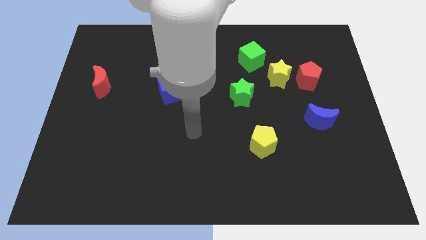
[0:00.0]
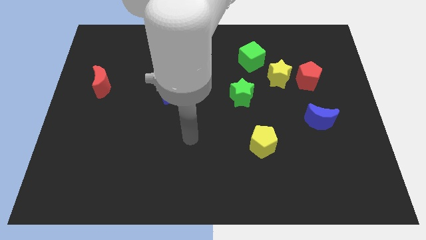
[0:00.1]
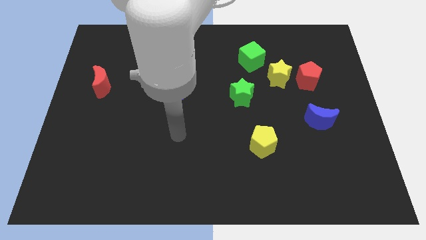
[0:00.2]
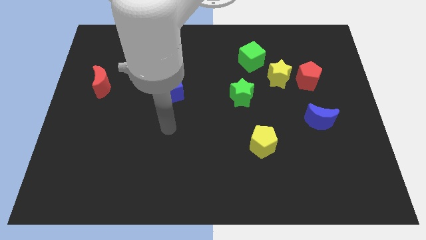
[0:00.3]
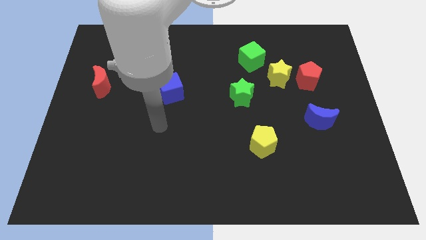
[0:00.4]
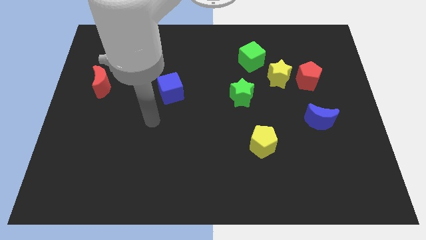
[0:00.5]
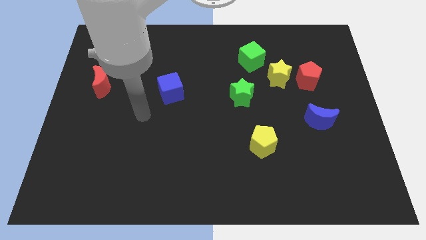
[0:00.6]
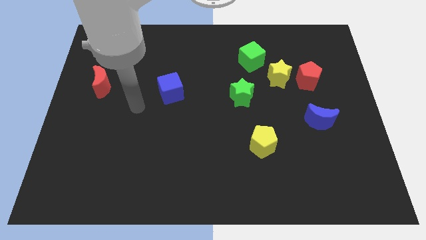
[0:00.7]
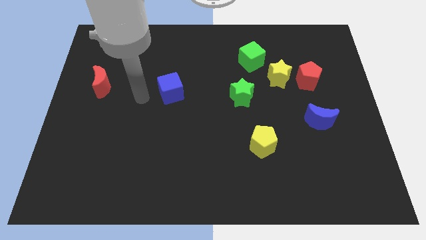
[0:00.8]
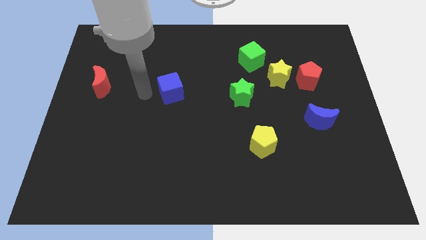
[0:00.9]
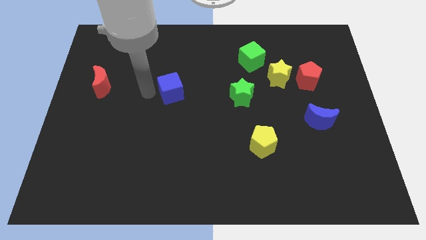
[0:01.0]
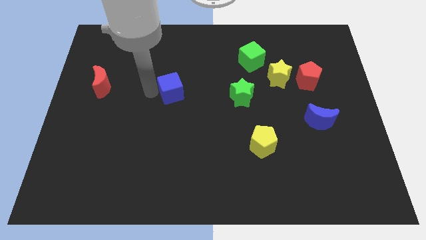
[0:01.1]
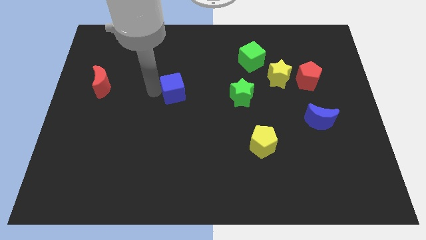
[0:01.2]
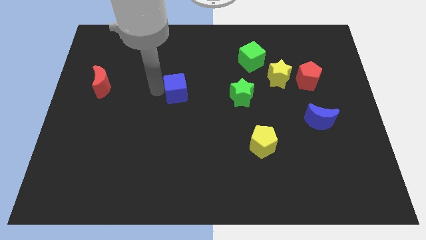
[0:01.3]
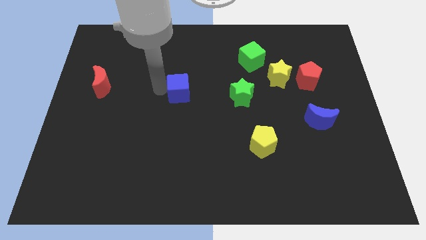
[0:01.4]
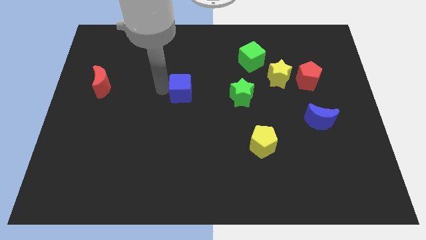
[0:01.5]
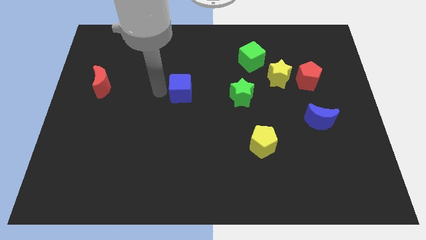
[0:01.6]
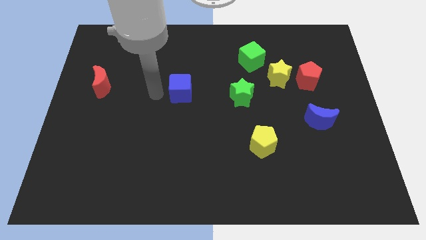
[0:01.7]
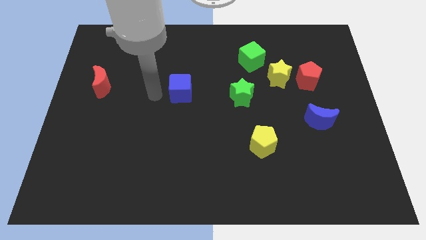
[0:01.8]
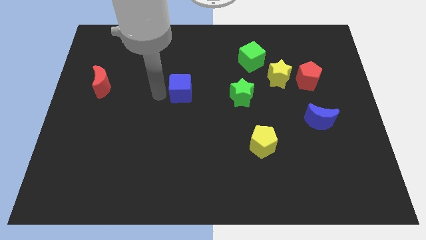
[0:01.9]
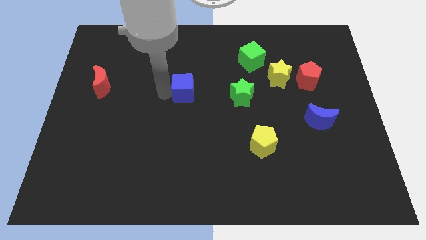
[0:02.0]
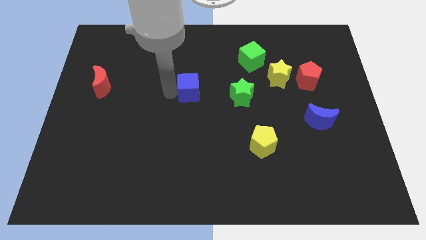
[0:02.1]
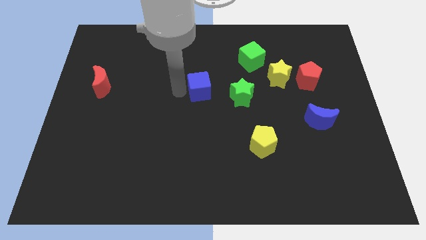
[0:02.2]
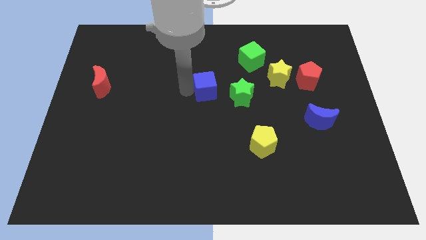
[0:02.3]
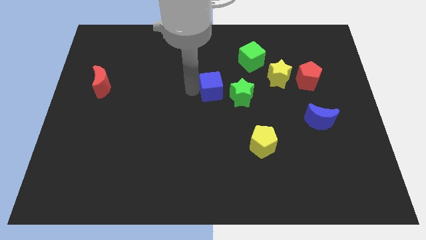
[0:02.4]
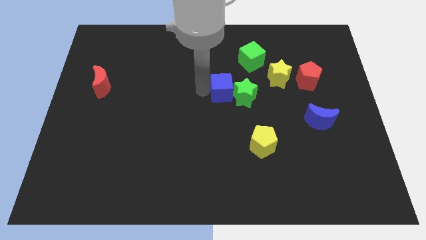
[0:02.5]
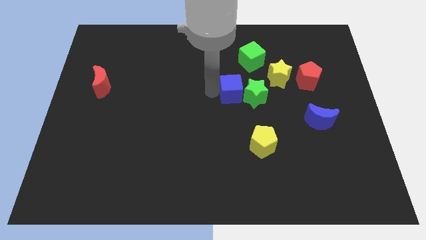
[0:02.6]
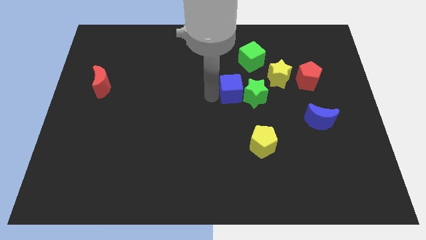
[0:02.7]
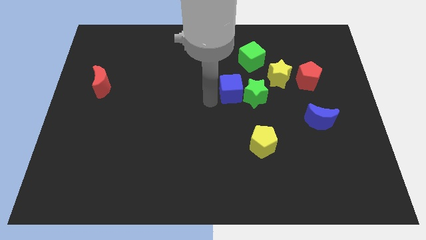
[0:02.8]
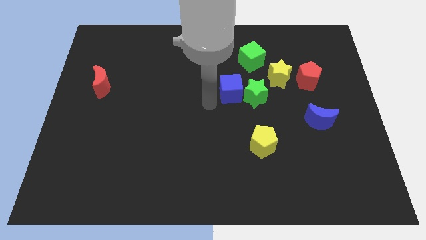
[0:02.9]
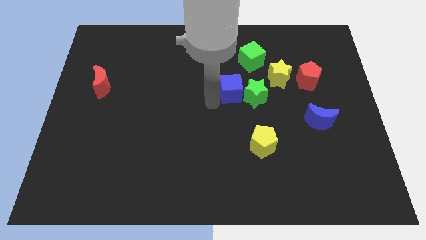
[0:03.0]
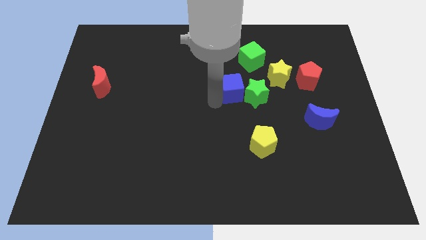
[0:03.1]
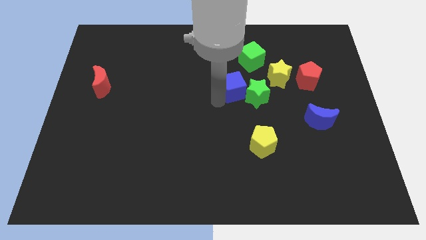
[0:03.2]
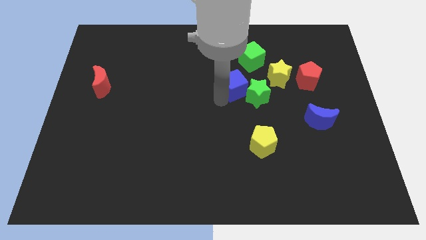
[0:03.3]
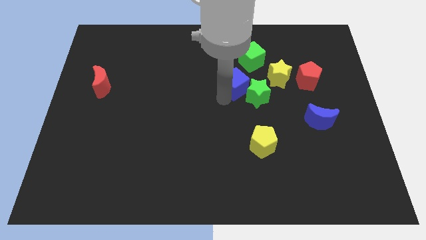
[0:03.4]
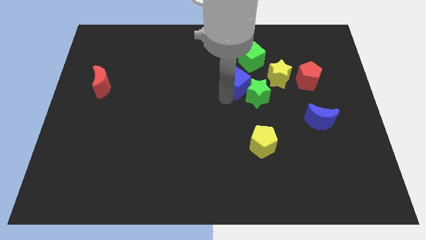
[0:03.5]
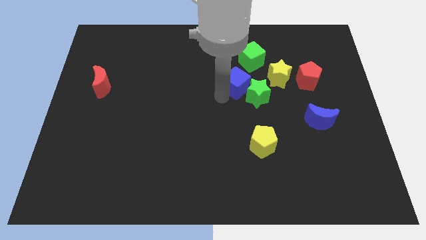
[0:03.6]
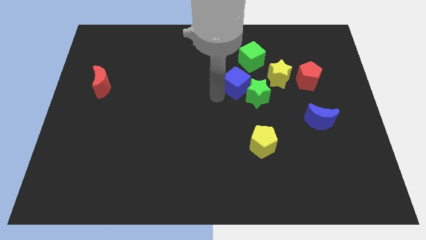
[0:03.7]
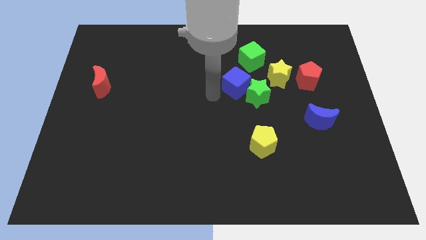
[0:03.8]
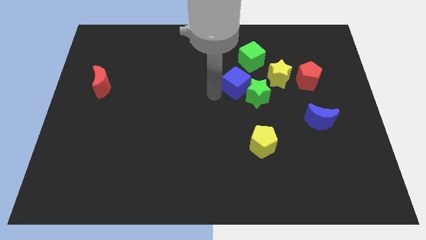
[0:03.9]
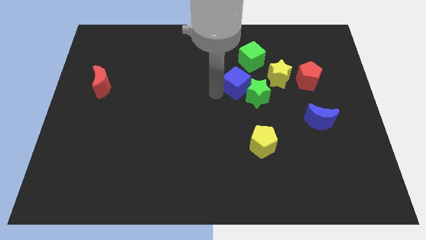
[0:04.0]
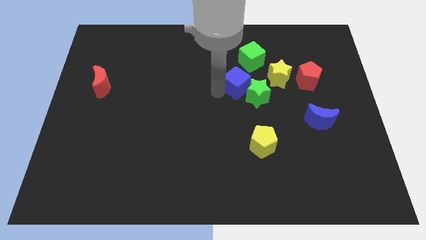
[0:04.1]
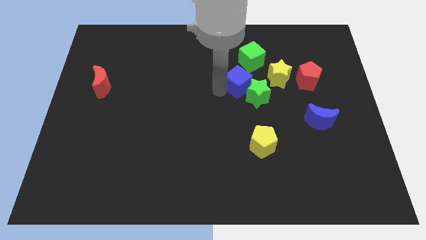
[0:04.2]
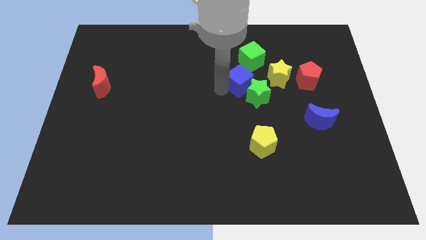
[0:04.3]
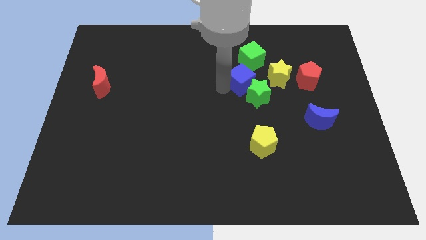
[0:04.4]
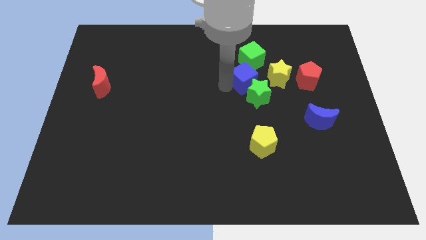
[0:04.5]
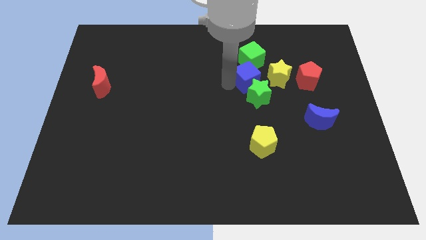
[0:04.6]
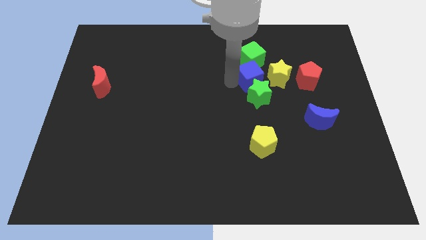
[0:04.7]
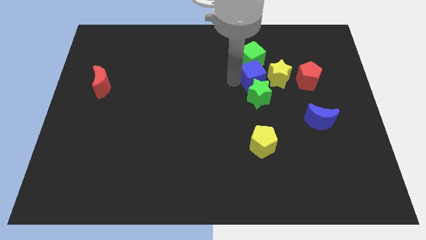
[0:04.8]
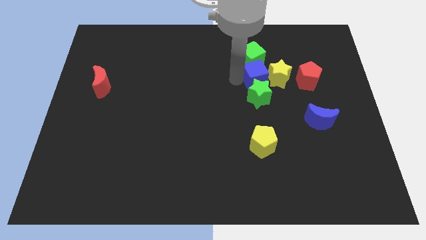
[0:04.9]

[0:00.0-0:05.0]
move the blue cube next to the yellow star

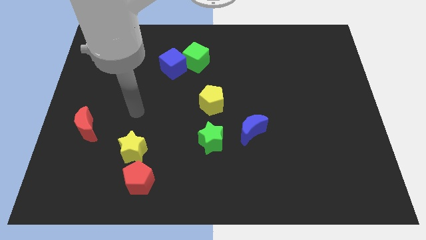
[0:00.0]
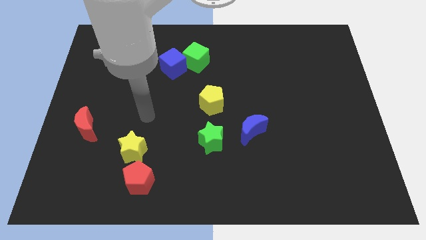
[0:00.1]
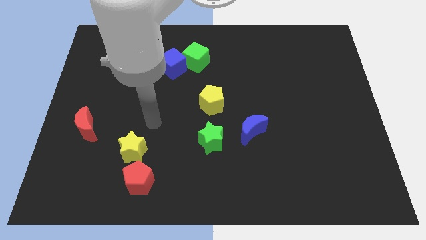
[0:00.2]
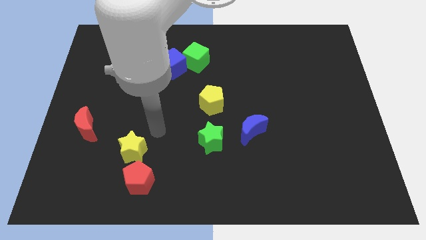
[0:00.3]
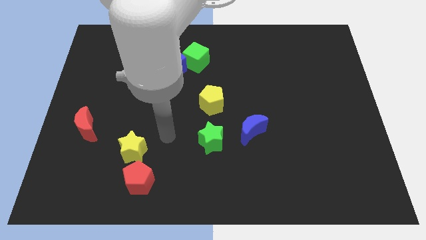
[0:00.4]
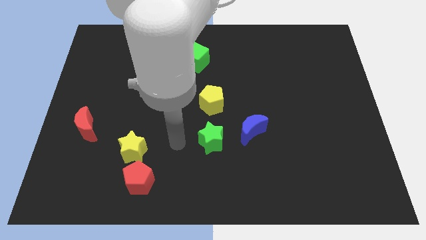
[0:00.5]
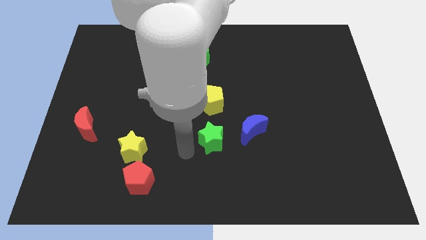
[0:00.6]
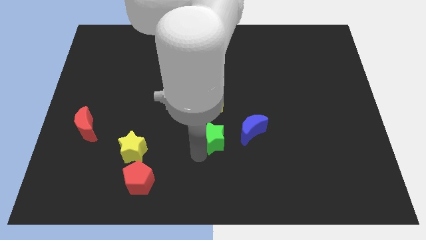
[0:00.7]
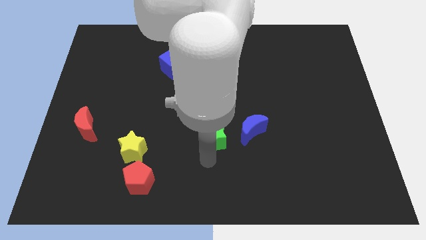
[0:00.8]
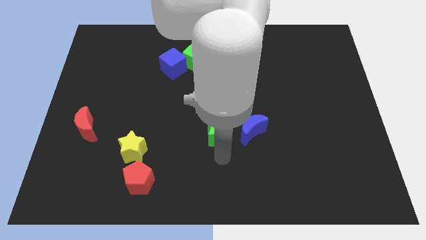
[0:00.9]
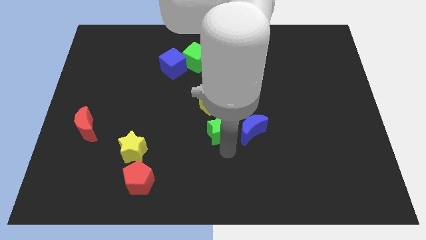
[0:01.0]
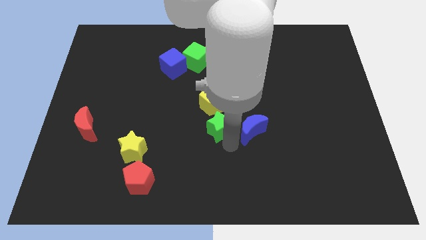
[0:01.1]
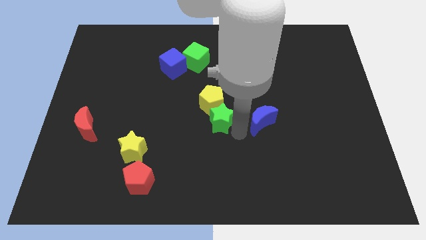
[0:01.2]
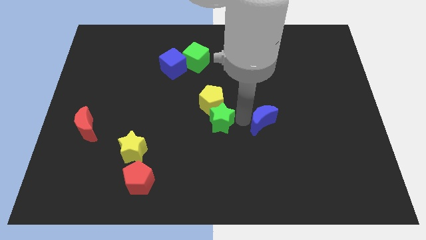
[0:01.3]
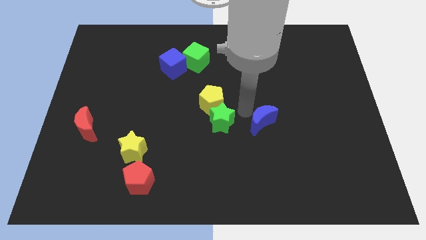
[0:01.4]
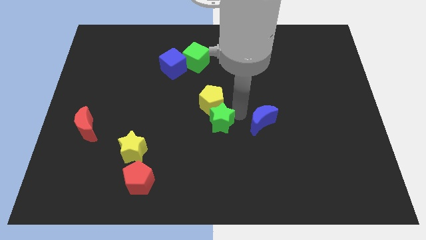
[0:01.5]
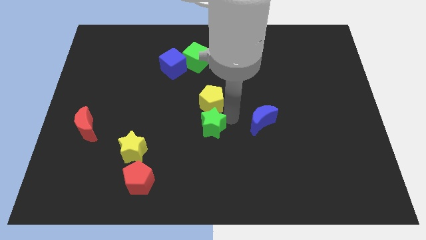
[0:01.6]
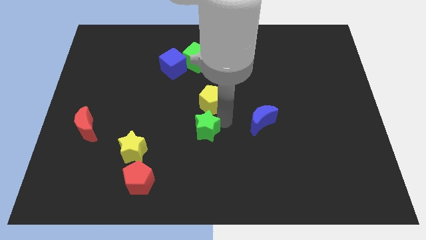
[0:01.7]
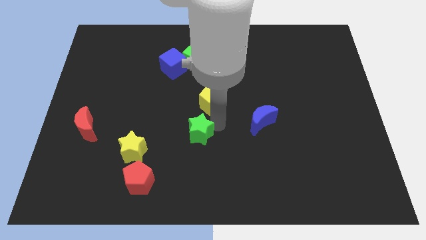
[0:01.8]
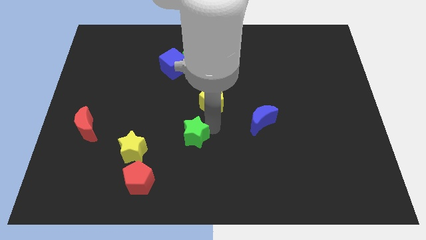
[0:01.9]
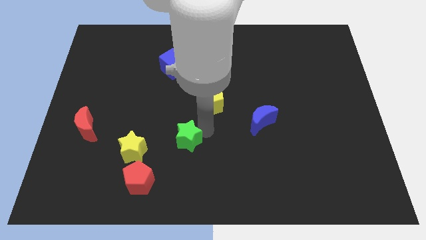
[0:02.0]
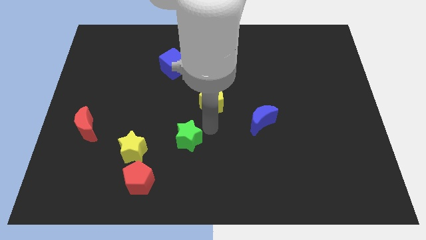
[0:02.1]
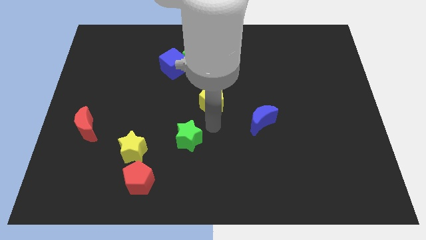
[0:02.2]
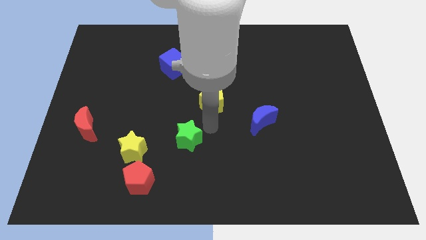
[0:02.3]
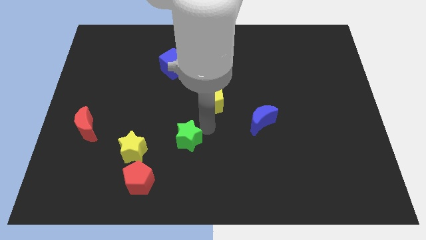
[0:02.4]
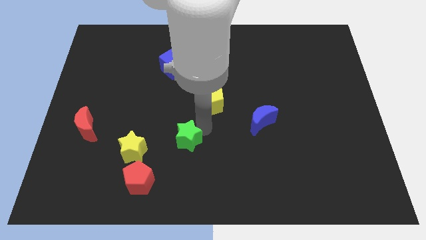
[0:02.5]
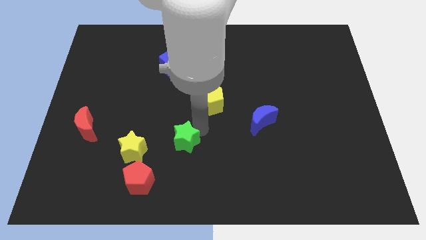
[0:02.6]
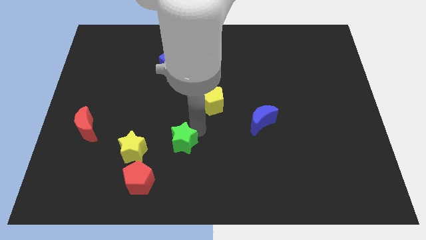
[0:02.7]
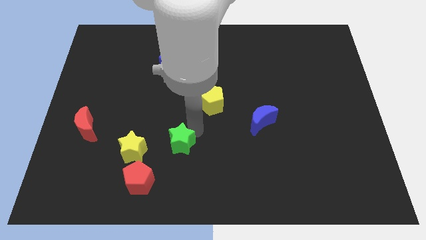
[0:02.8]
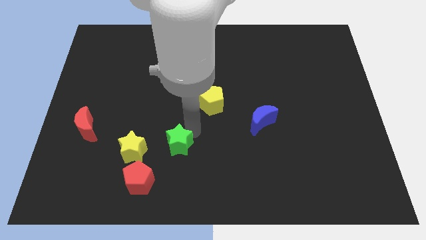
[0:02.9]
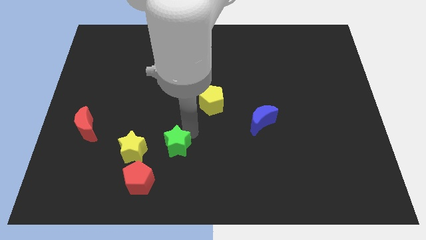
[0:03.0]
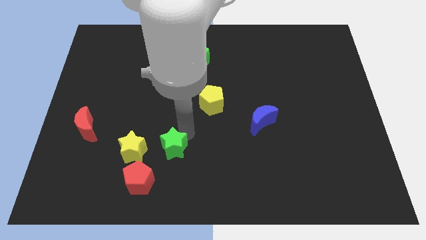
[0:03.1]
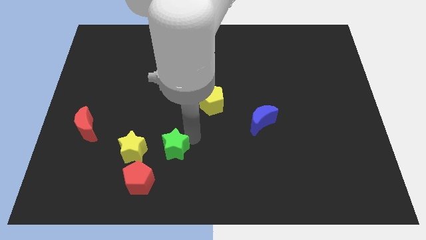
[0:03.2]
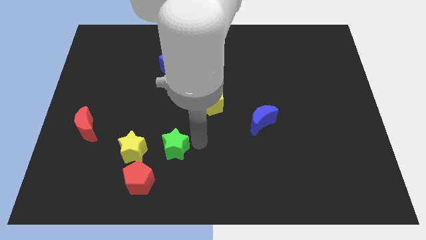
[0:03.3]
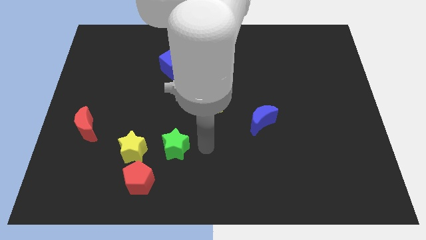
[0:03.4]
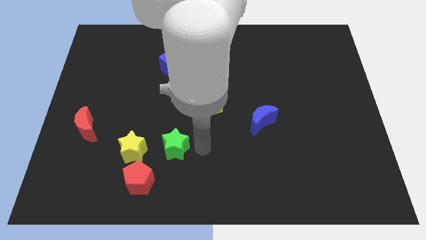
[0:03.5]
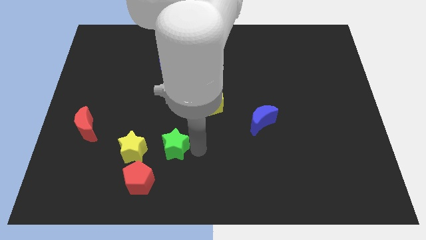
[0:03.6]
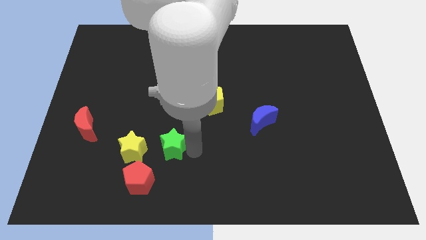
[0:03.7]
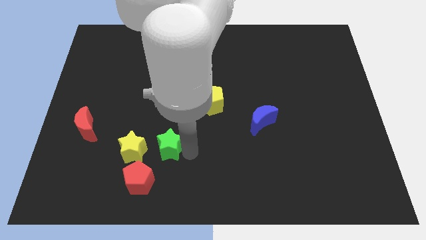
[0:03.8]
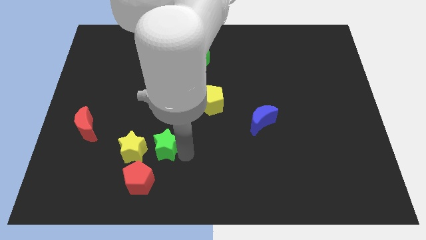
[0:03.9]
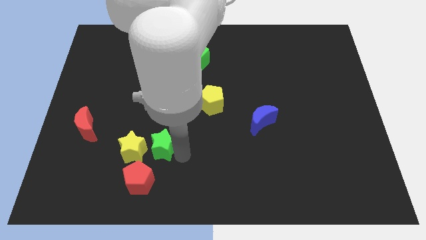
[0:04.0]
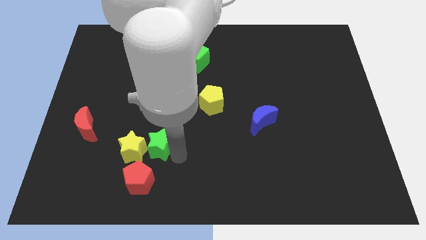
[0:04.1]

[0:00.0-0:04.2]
move the green star next to the yellow star
